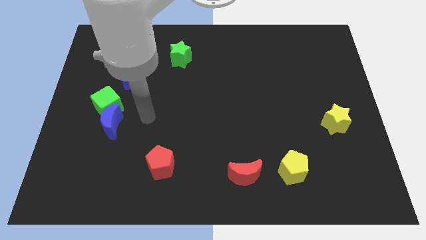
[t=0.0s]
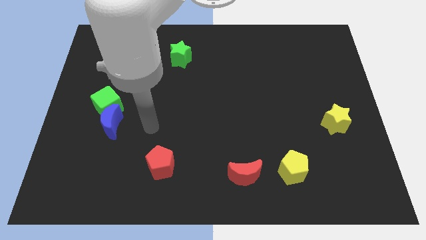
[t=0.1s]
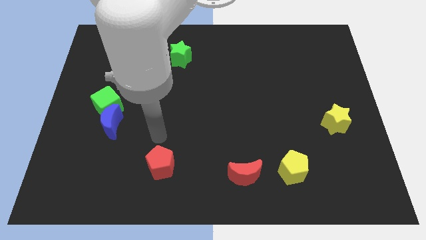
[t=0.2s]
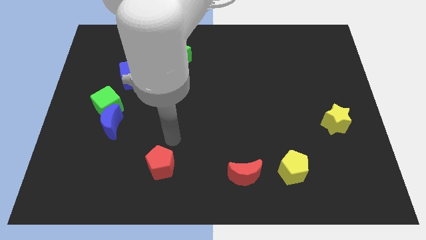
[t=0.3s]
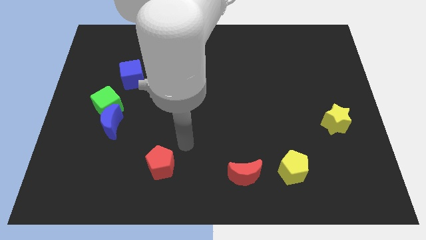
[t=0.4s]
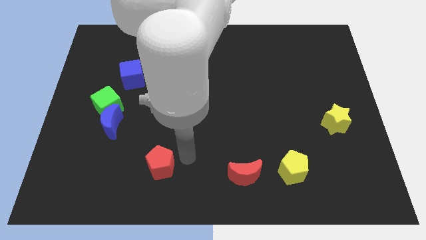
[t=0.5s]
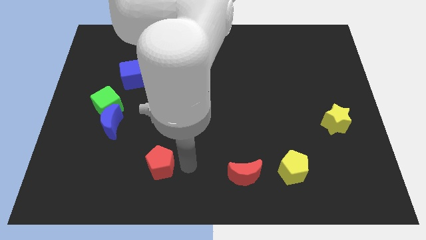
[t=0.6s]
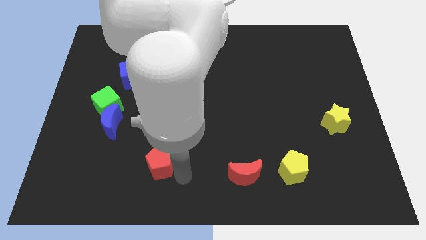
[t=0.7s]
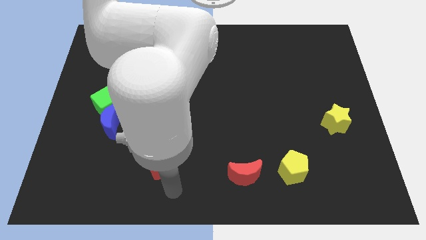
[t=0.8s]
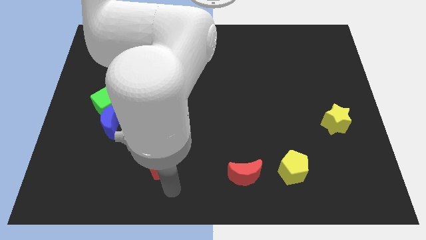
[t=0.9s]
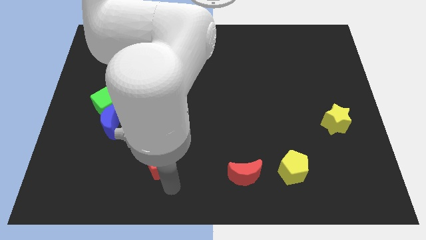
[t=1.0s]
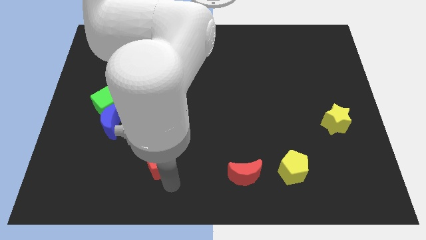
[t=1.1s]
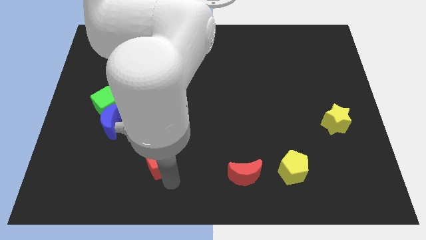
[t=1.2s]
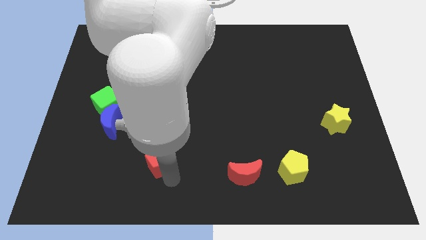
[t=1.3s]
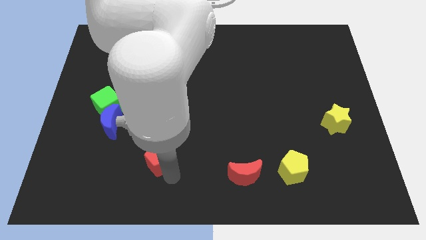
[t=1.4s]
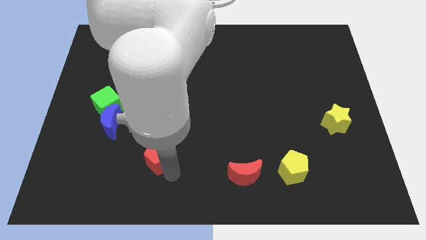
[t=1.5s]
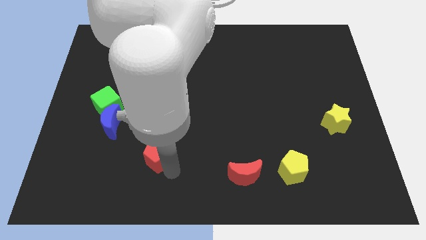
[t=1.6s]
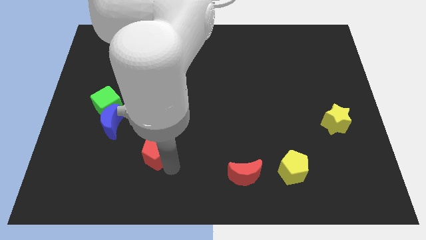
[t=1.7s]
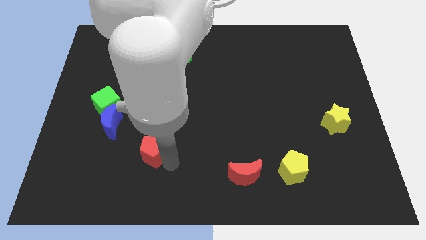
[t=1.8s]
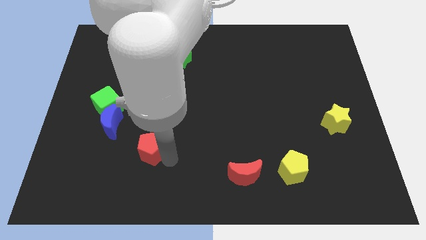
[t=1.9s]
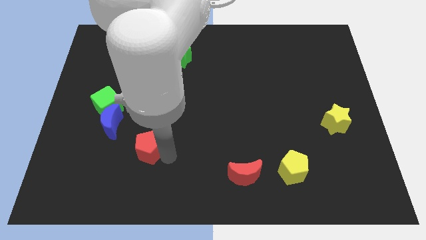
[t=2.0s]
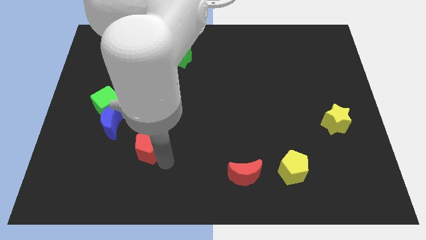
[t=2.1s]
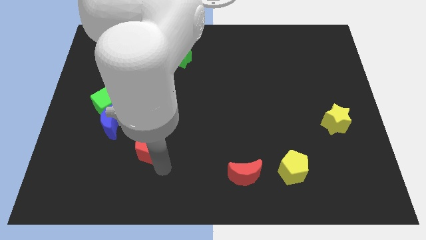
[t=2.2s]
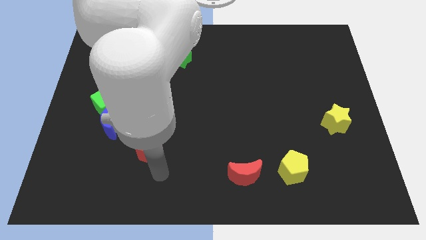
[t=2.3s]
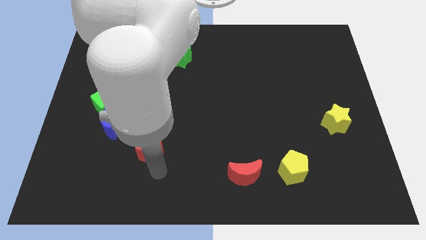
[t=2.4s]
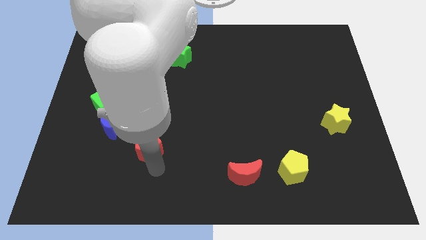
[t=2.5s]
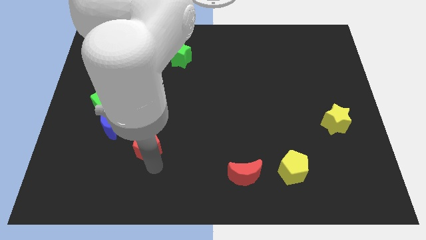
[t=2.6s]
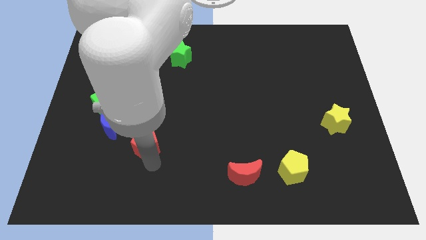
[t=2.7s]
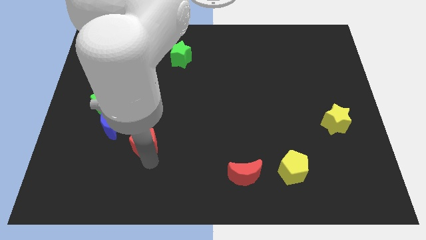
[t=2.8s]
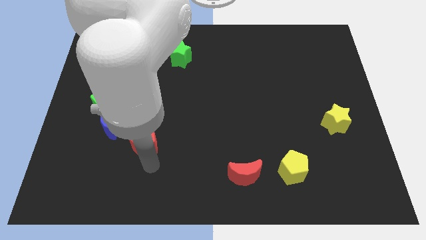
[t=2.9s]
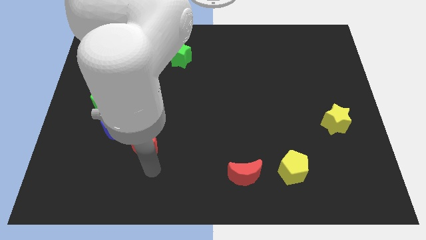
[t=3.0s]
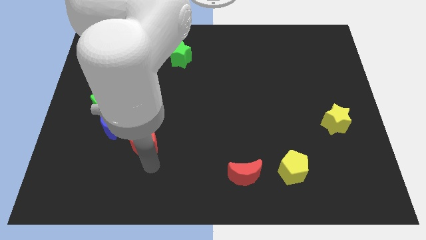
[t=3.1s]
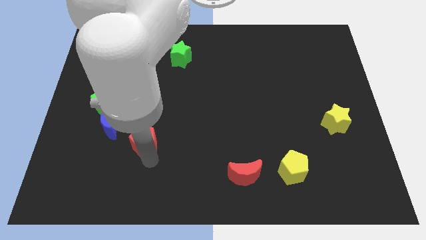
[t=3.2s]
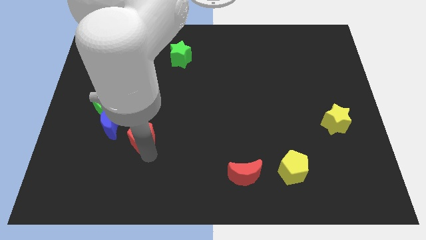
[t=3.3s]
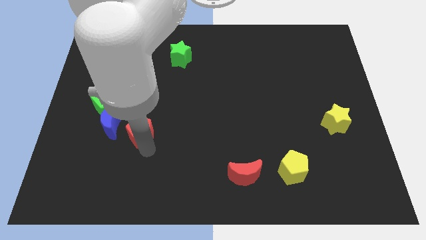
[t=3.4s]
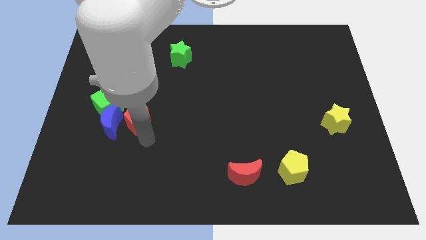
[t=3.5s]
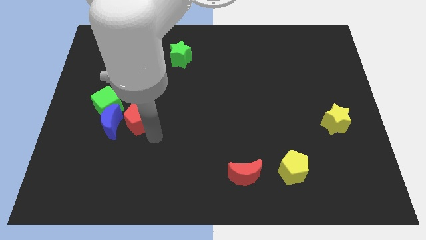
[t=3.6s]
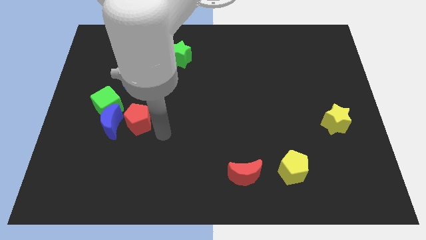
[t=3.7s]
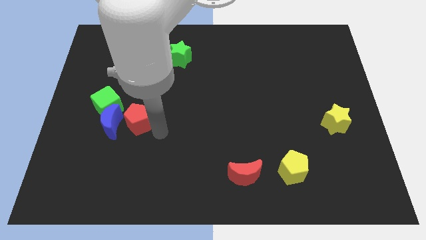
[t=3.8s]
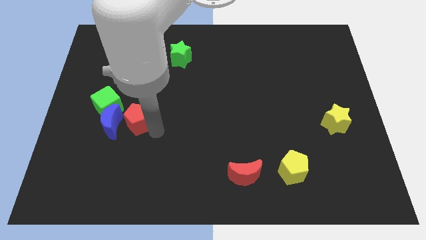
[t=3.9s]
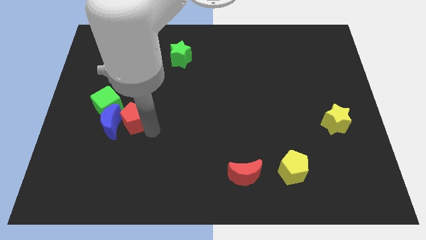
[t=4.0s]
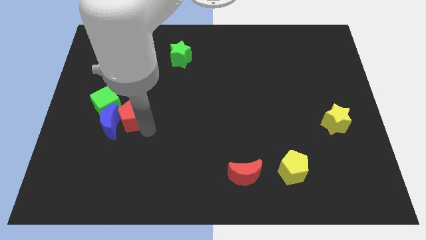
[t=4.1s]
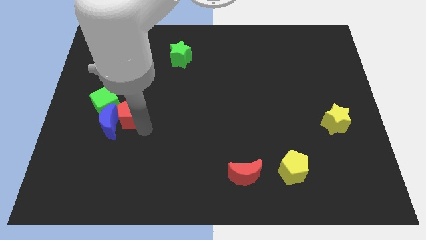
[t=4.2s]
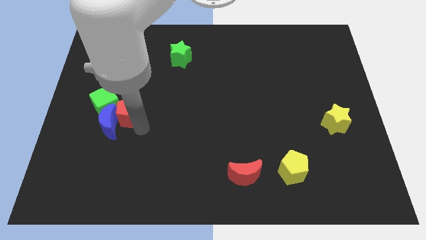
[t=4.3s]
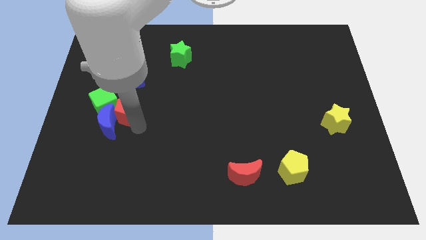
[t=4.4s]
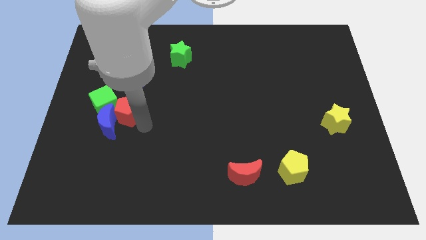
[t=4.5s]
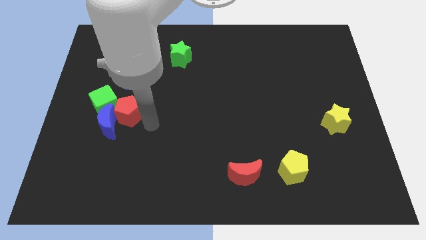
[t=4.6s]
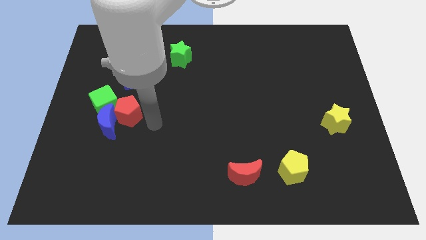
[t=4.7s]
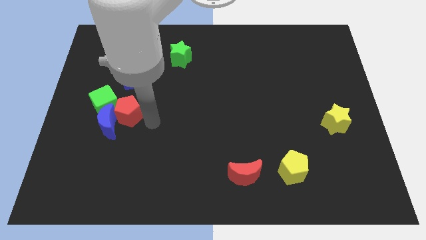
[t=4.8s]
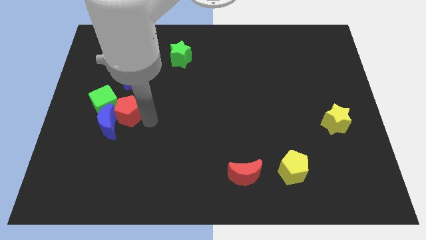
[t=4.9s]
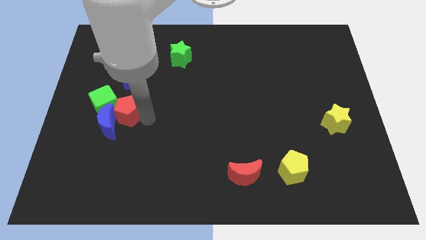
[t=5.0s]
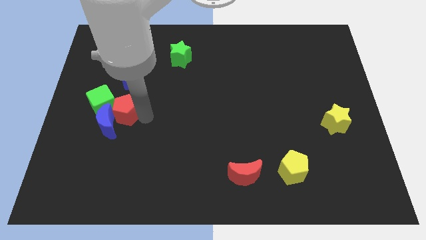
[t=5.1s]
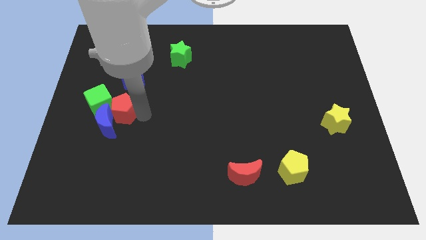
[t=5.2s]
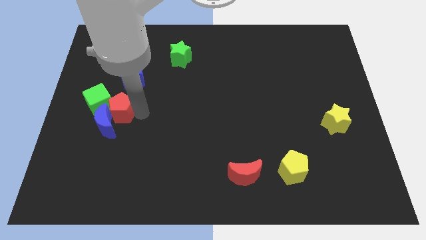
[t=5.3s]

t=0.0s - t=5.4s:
push the red pentagon towards the green cube

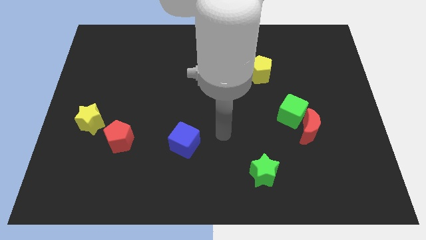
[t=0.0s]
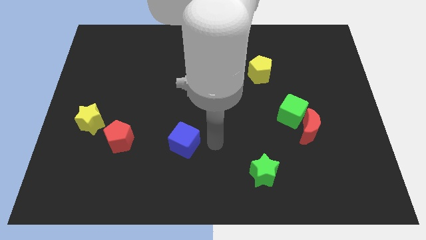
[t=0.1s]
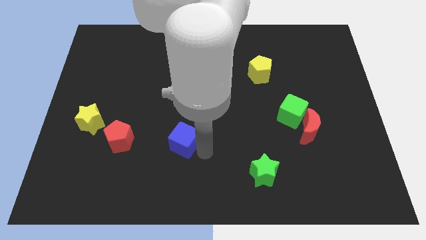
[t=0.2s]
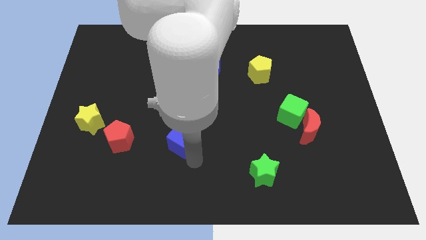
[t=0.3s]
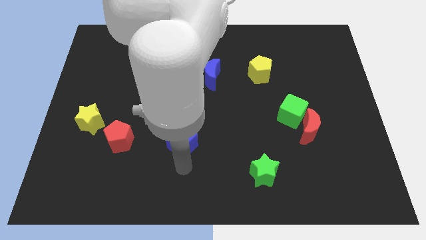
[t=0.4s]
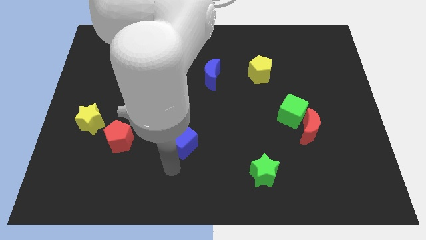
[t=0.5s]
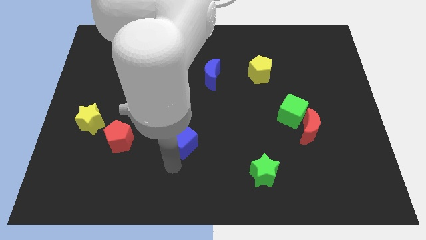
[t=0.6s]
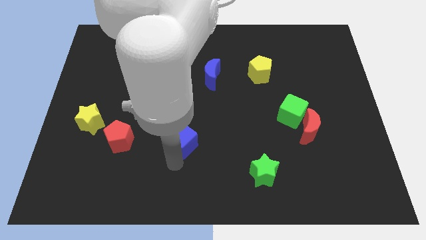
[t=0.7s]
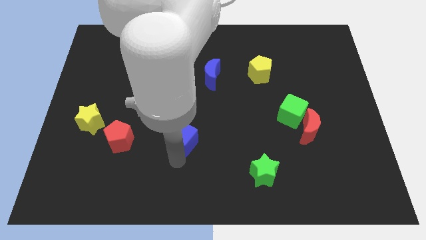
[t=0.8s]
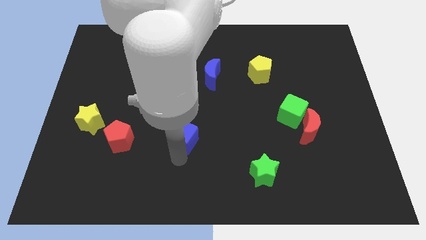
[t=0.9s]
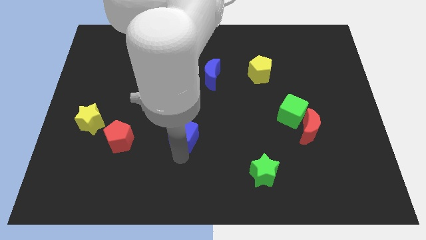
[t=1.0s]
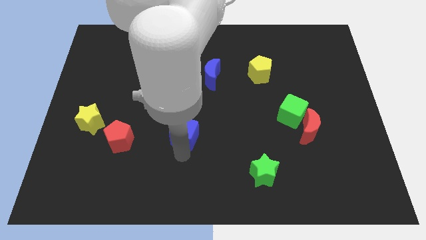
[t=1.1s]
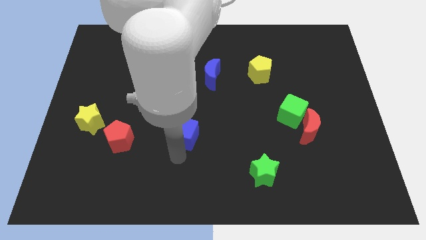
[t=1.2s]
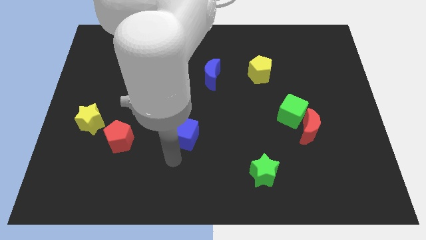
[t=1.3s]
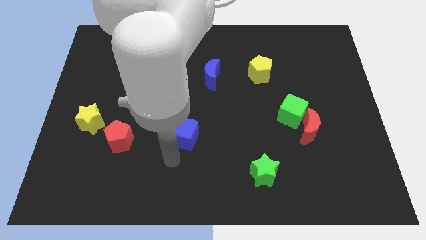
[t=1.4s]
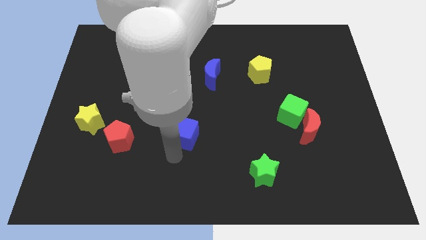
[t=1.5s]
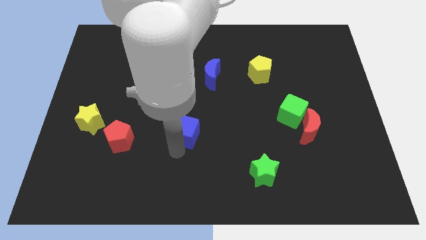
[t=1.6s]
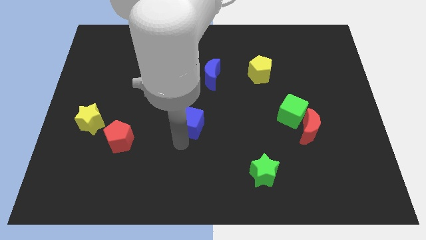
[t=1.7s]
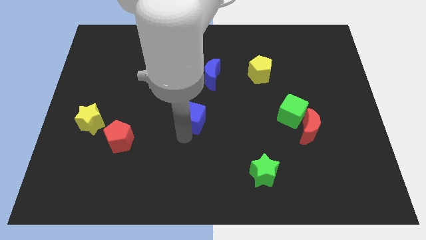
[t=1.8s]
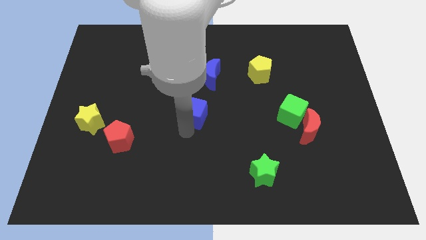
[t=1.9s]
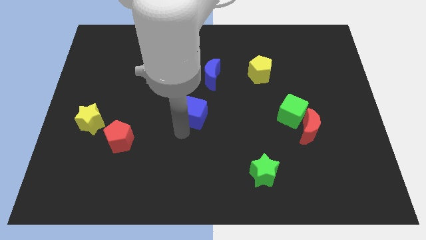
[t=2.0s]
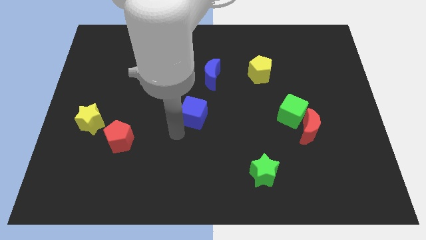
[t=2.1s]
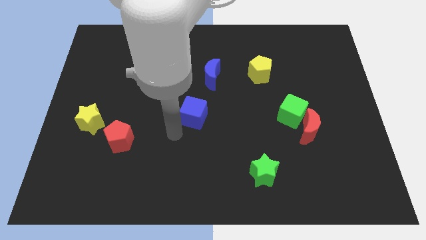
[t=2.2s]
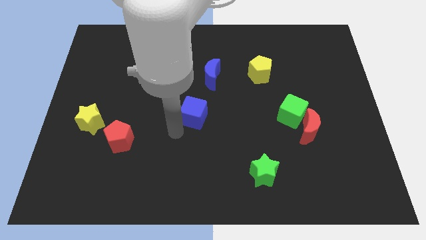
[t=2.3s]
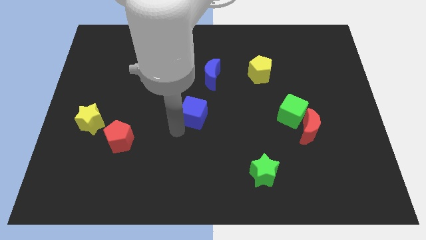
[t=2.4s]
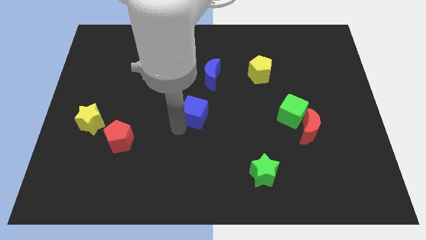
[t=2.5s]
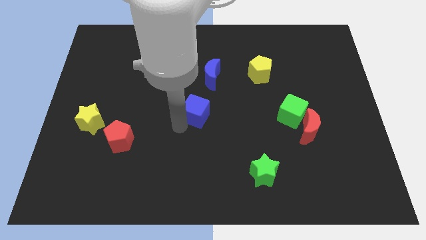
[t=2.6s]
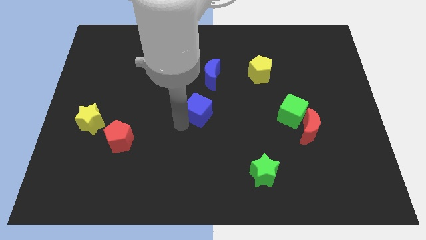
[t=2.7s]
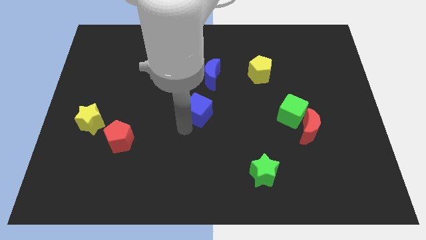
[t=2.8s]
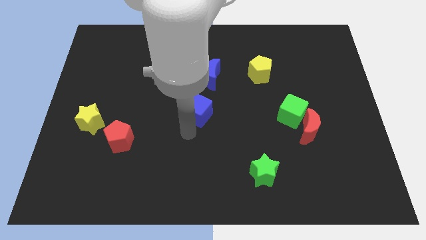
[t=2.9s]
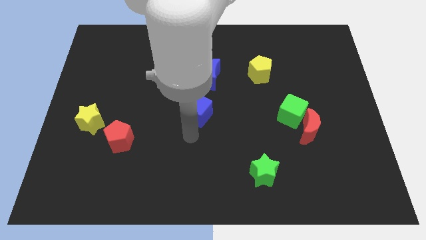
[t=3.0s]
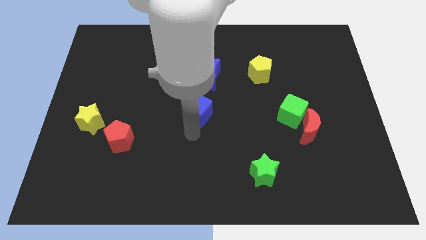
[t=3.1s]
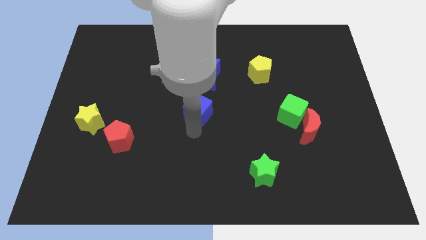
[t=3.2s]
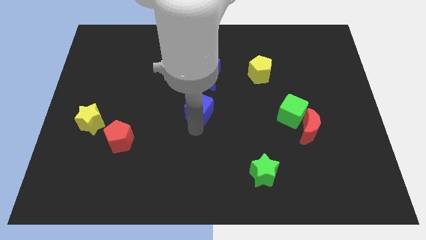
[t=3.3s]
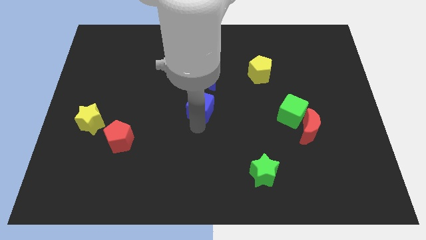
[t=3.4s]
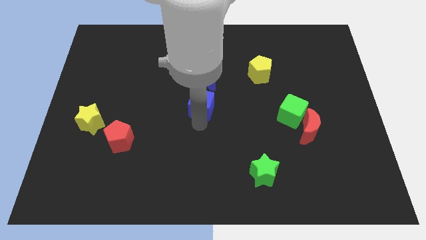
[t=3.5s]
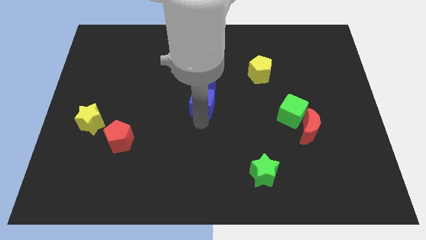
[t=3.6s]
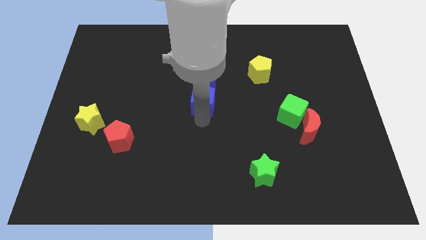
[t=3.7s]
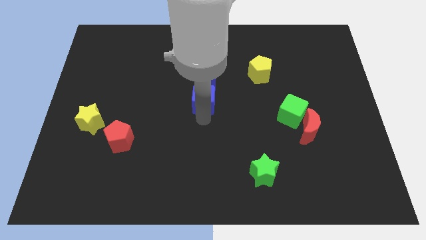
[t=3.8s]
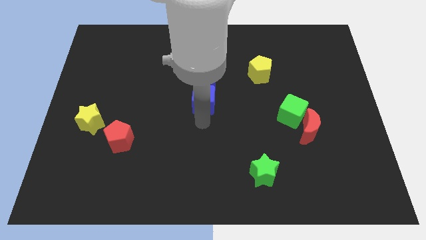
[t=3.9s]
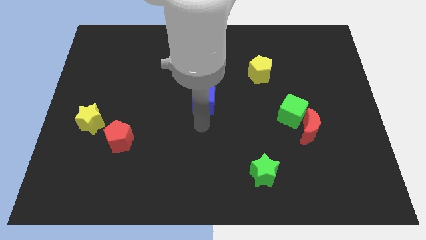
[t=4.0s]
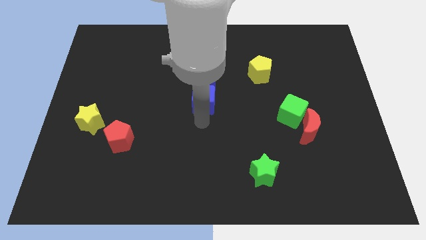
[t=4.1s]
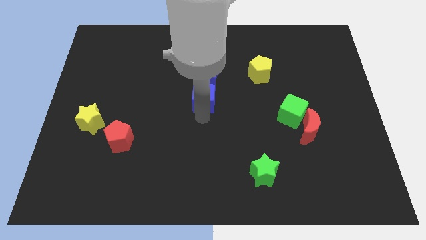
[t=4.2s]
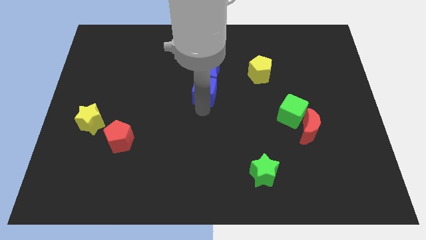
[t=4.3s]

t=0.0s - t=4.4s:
move the blue cube towards the blue moon
